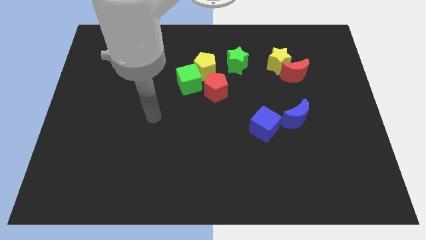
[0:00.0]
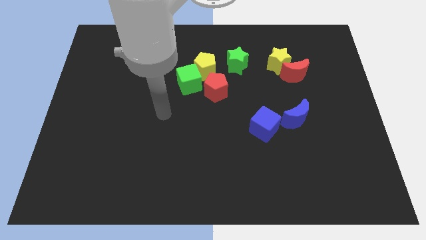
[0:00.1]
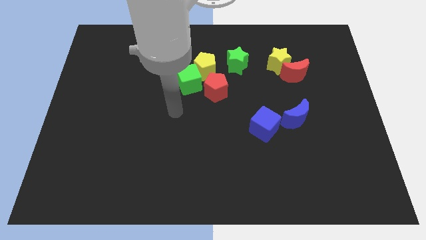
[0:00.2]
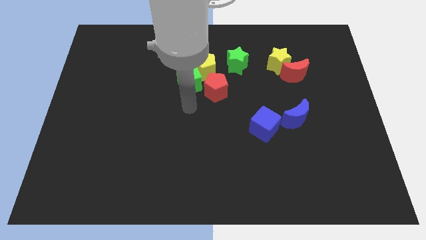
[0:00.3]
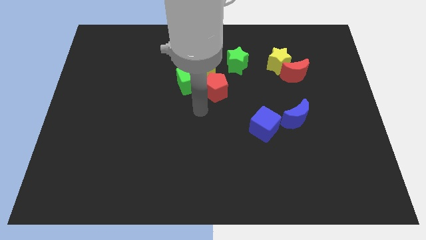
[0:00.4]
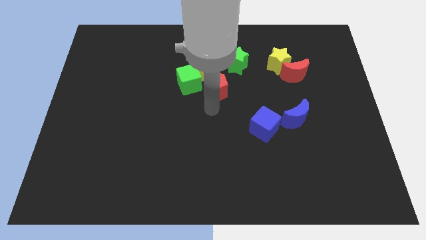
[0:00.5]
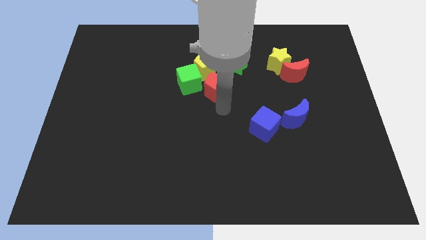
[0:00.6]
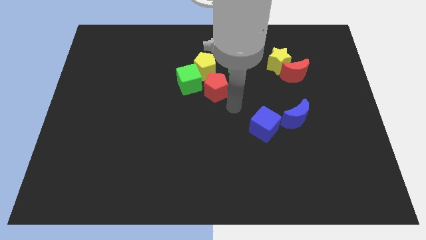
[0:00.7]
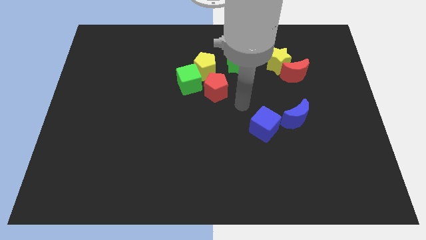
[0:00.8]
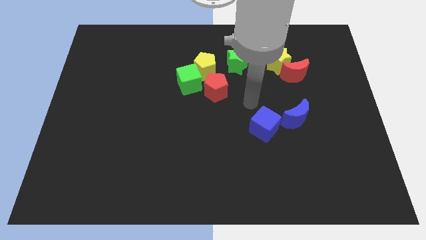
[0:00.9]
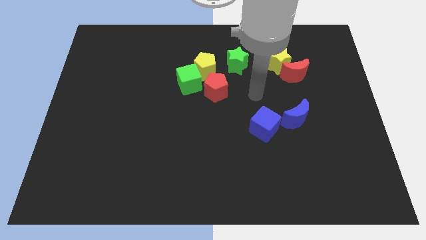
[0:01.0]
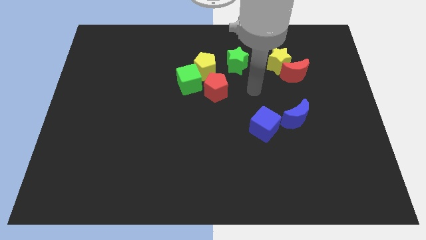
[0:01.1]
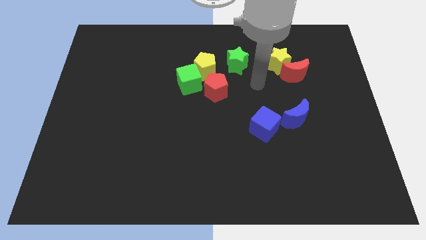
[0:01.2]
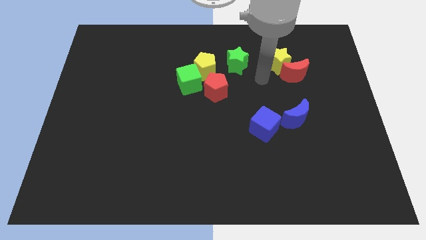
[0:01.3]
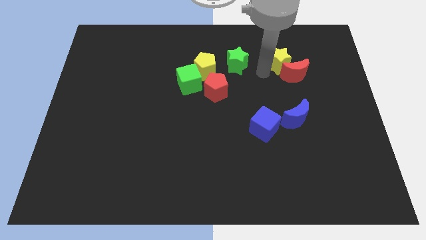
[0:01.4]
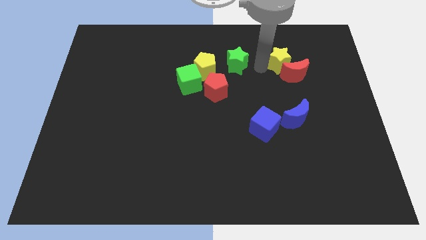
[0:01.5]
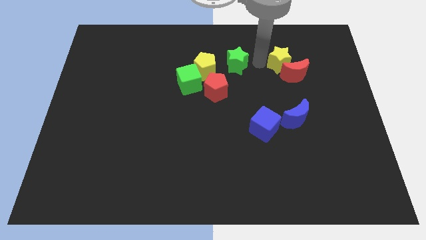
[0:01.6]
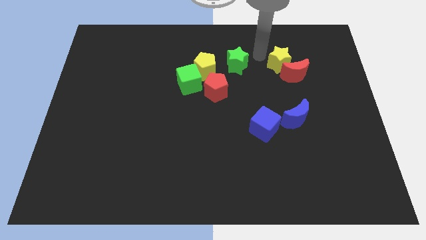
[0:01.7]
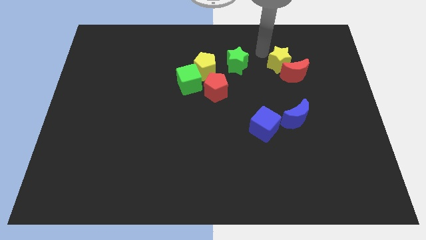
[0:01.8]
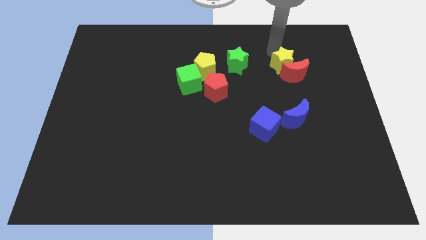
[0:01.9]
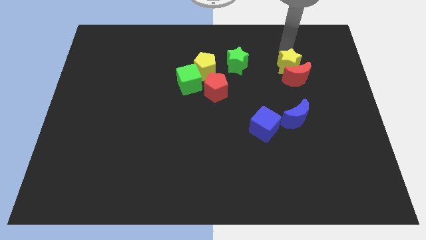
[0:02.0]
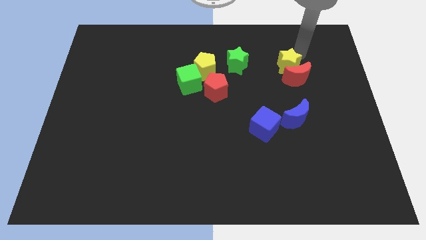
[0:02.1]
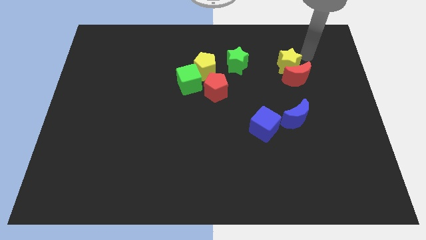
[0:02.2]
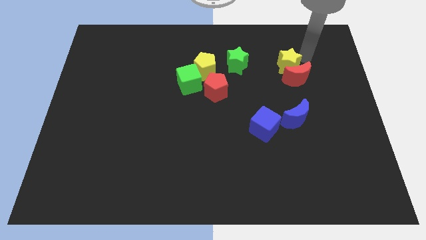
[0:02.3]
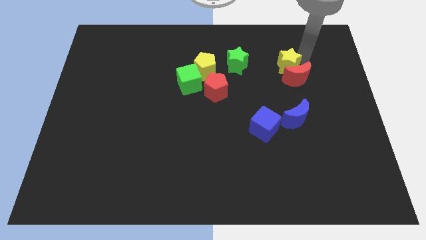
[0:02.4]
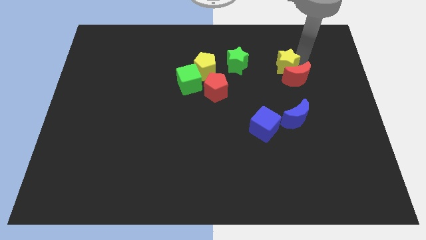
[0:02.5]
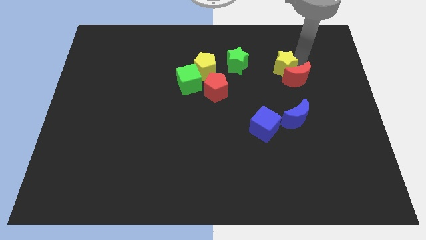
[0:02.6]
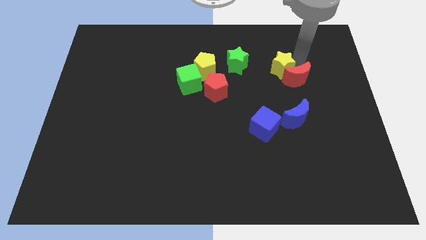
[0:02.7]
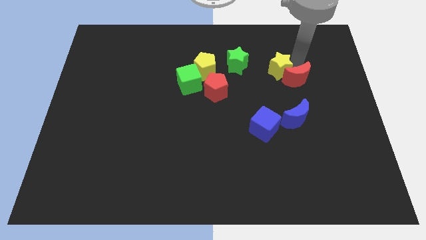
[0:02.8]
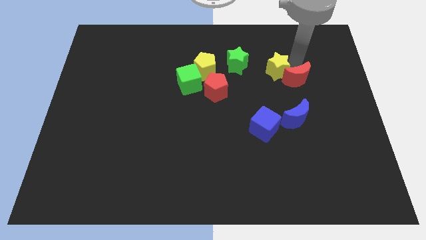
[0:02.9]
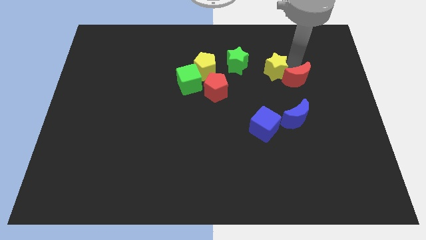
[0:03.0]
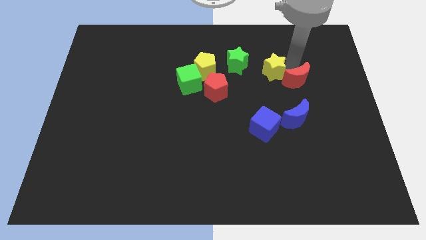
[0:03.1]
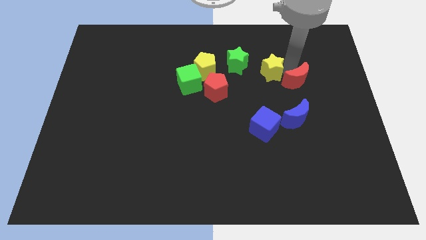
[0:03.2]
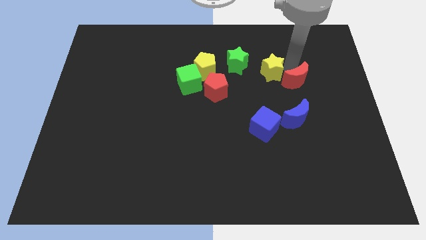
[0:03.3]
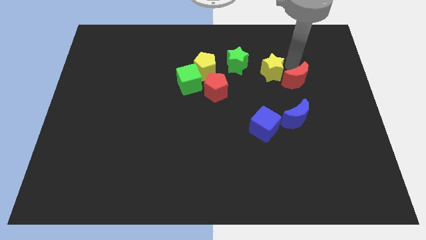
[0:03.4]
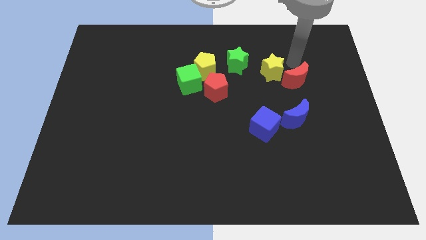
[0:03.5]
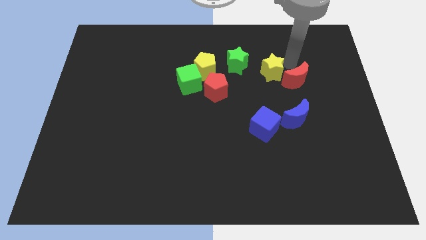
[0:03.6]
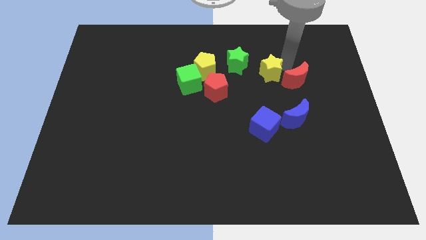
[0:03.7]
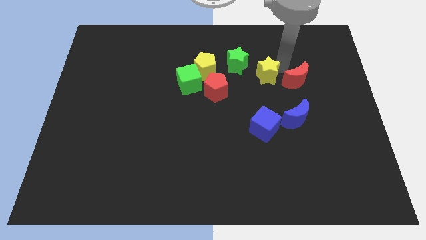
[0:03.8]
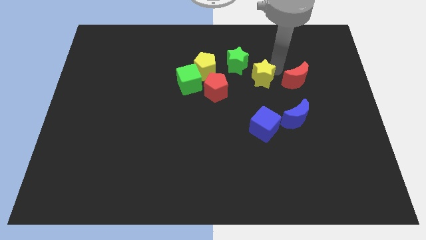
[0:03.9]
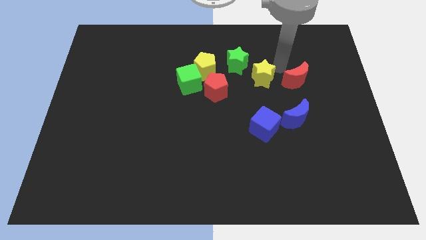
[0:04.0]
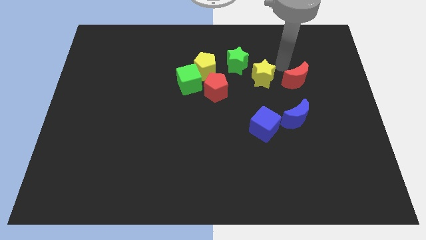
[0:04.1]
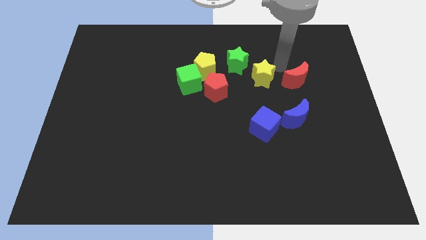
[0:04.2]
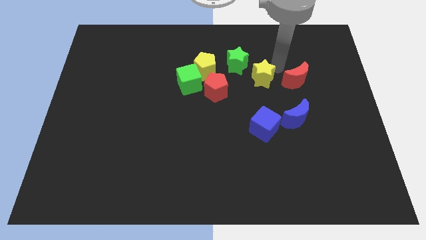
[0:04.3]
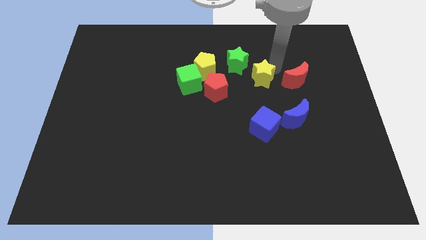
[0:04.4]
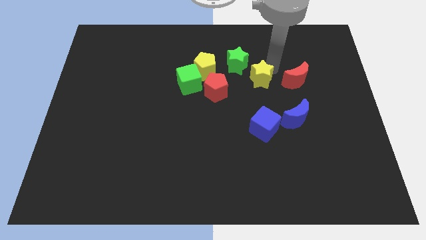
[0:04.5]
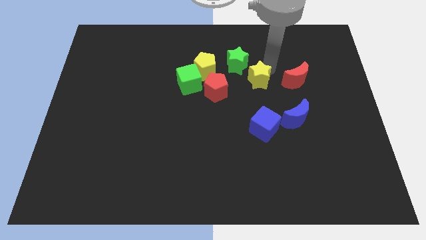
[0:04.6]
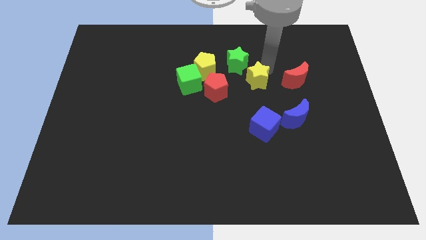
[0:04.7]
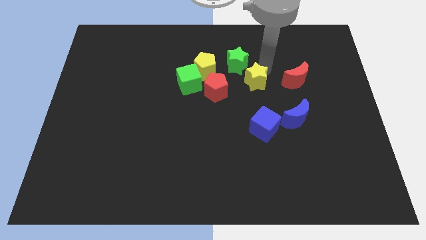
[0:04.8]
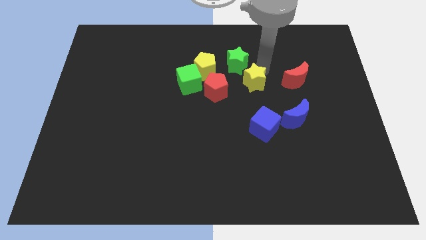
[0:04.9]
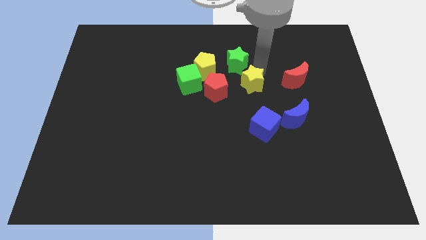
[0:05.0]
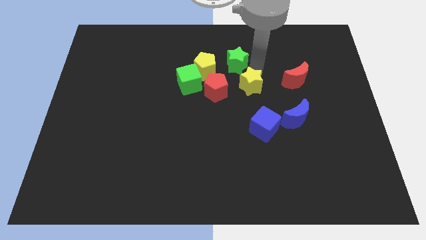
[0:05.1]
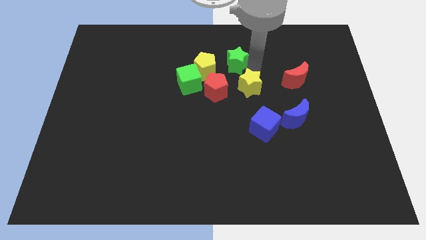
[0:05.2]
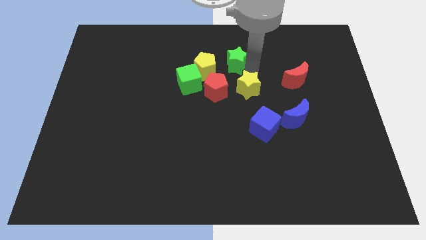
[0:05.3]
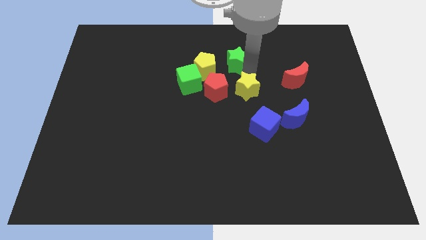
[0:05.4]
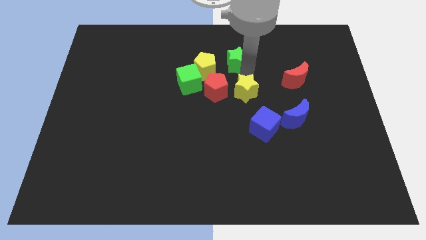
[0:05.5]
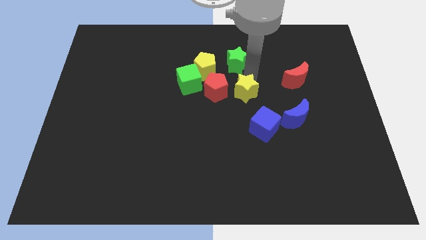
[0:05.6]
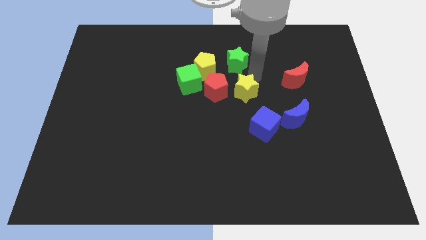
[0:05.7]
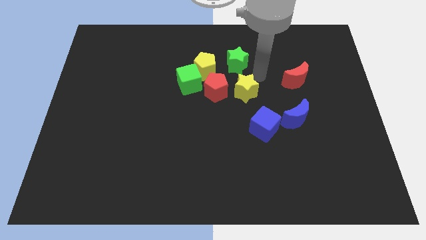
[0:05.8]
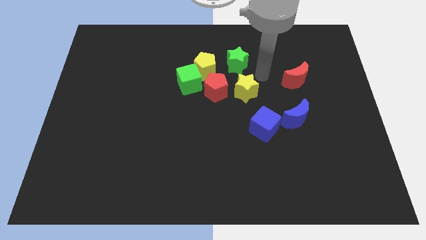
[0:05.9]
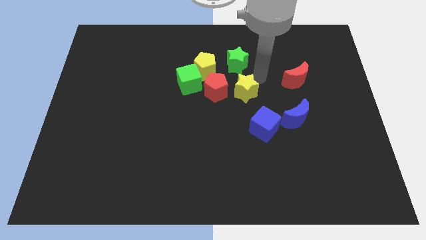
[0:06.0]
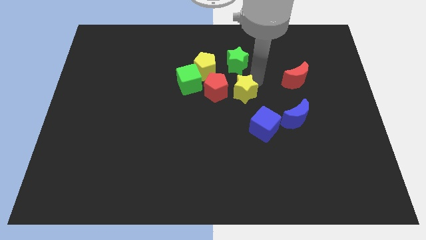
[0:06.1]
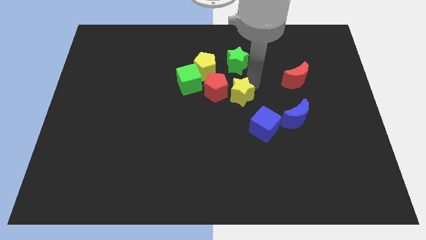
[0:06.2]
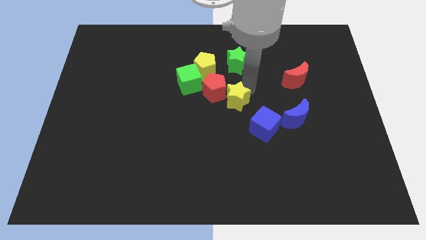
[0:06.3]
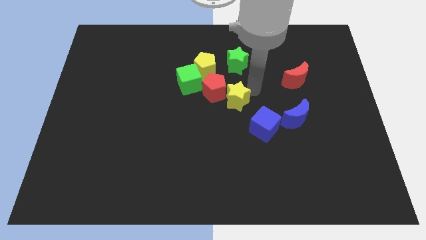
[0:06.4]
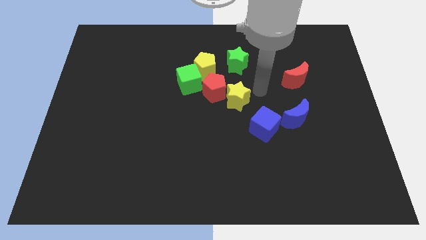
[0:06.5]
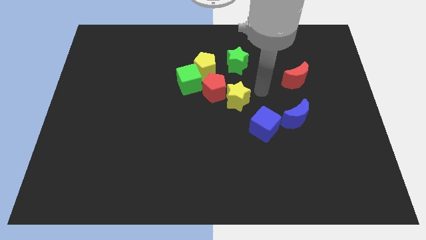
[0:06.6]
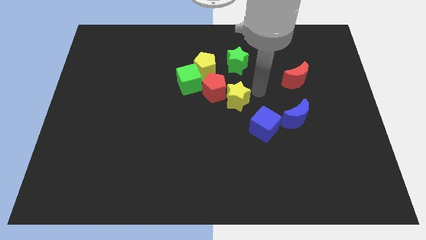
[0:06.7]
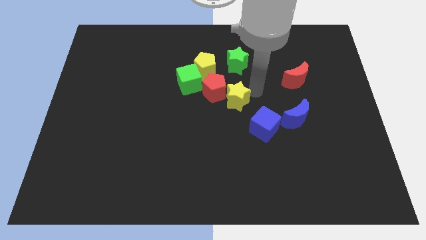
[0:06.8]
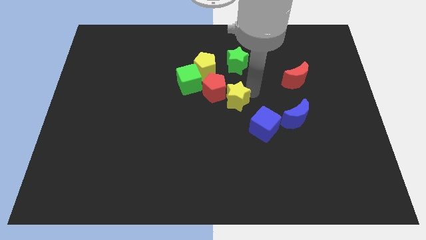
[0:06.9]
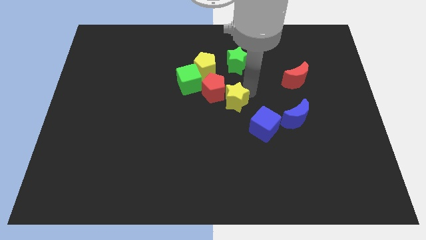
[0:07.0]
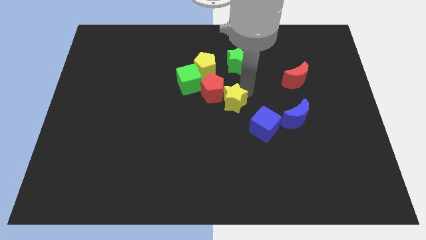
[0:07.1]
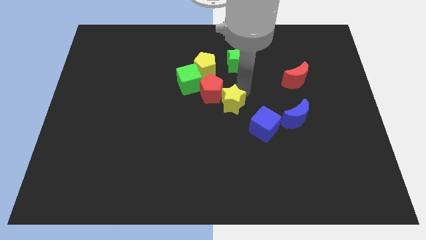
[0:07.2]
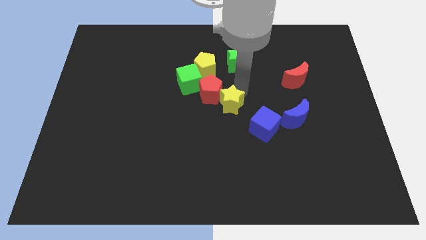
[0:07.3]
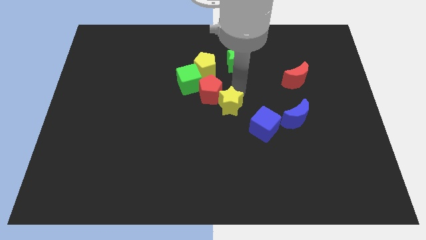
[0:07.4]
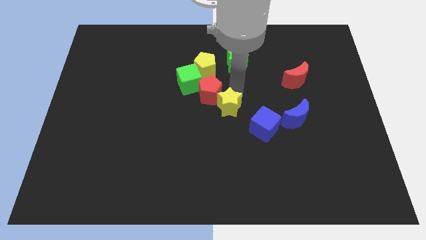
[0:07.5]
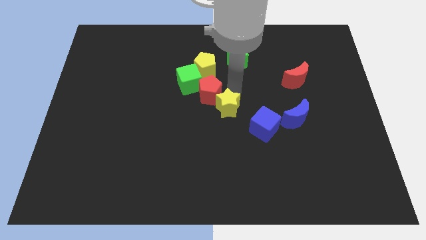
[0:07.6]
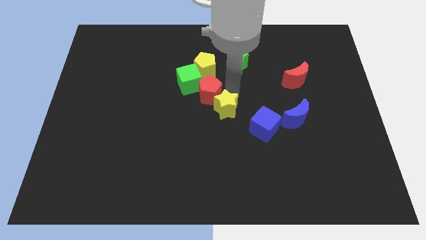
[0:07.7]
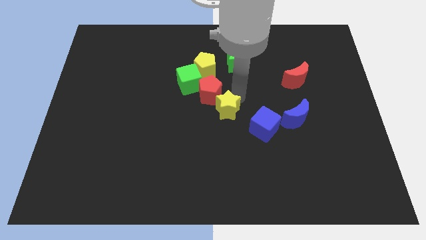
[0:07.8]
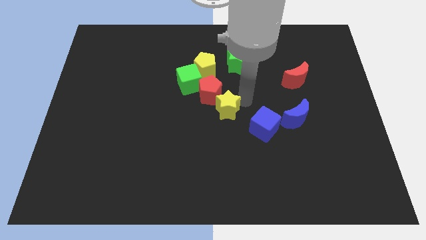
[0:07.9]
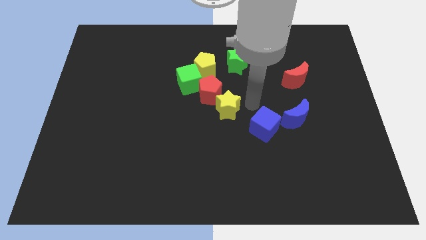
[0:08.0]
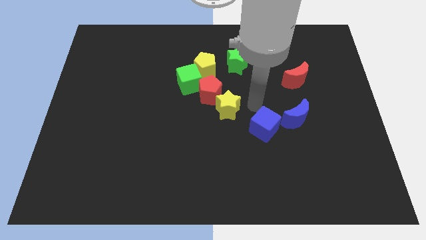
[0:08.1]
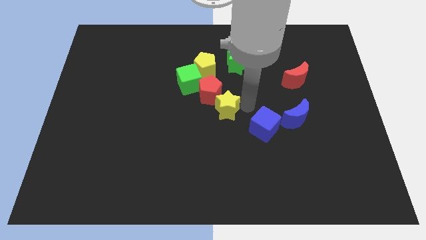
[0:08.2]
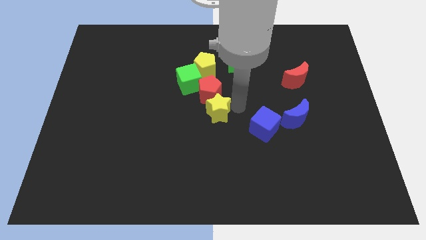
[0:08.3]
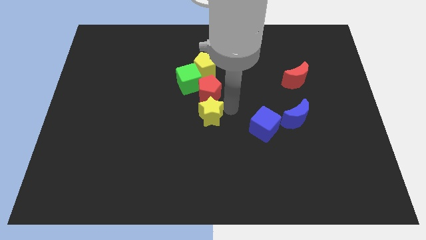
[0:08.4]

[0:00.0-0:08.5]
put the yellow star to the bottom left side of the red pentagon
